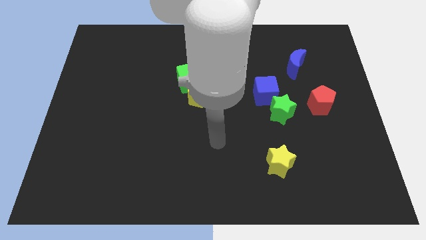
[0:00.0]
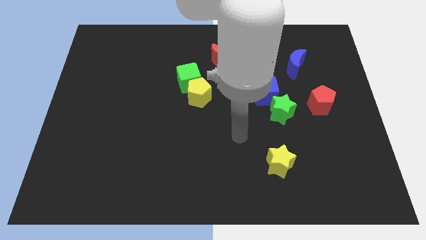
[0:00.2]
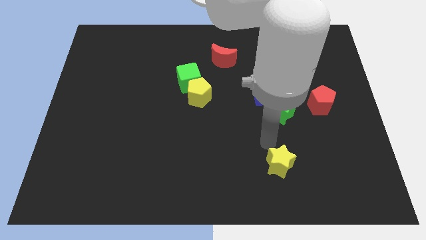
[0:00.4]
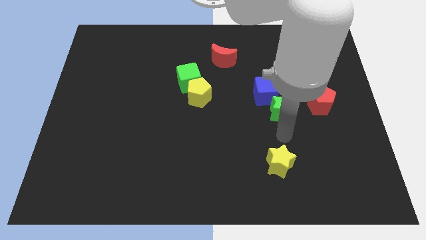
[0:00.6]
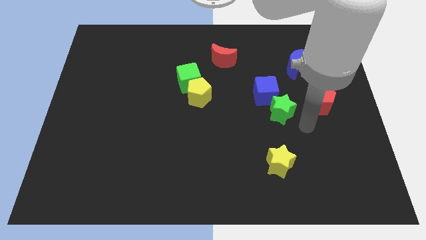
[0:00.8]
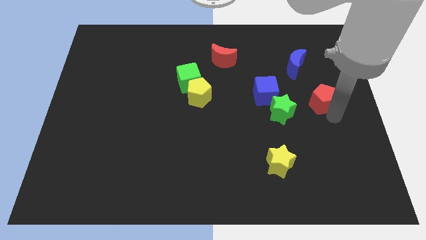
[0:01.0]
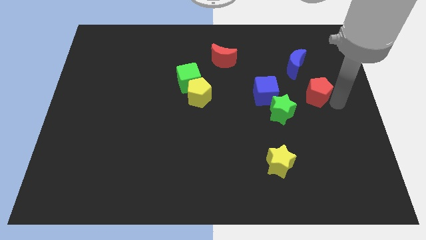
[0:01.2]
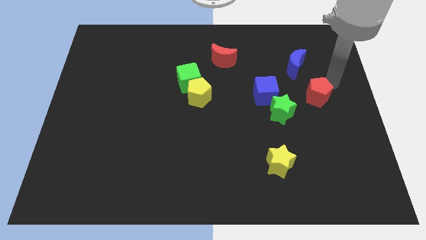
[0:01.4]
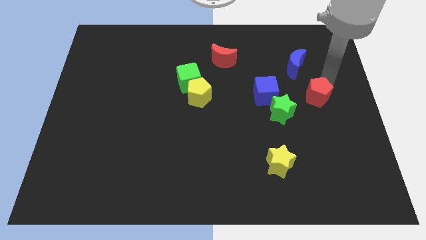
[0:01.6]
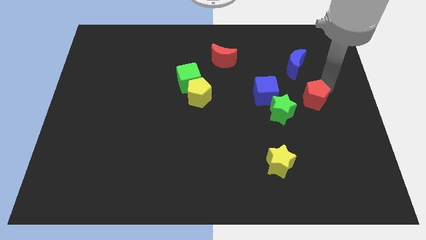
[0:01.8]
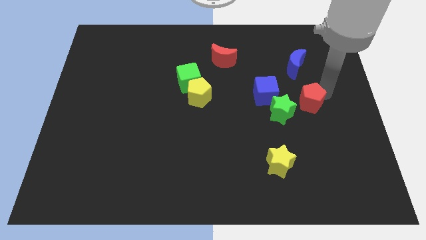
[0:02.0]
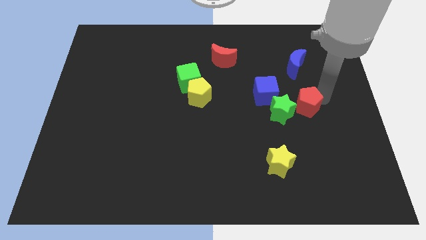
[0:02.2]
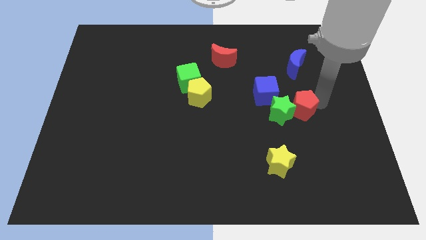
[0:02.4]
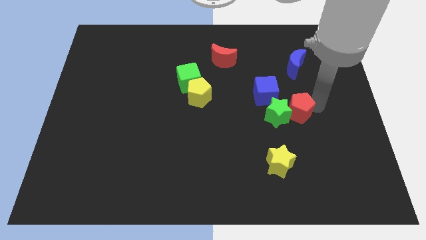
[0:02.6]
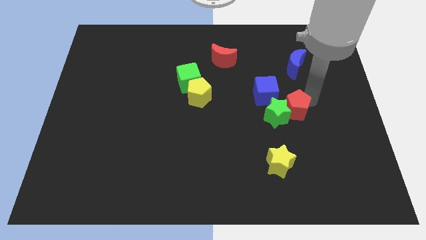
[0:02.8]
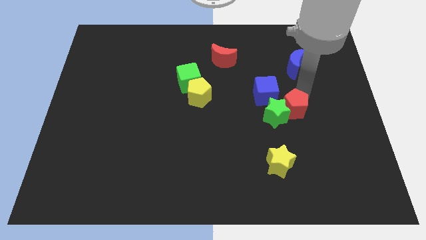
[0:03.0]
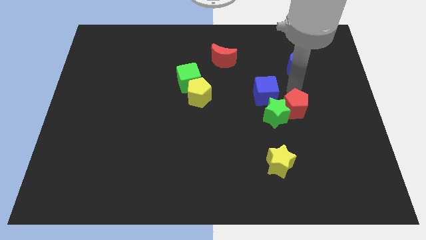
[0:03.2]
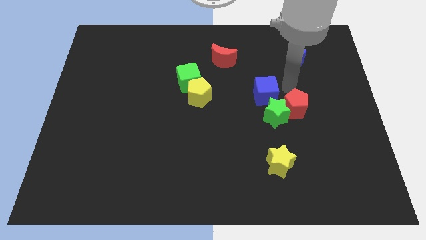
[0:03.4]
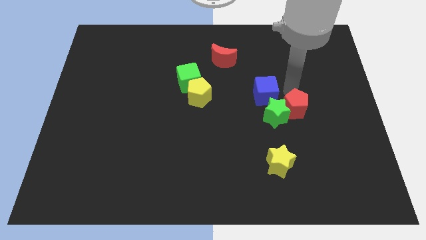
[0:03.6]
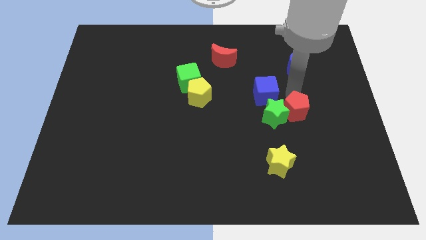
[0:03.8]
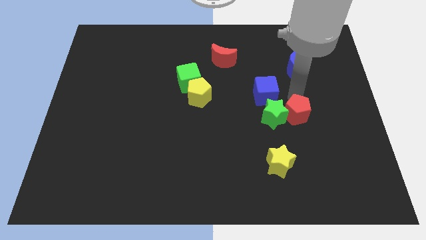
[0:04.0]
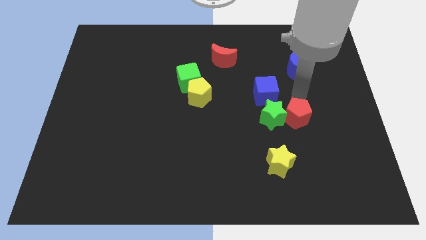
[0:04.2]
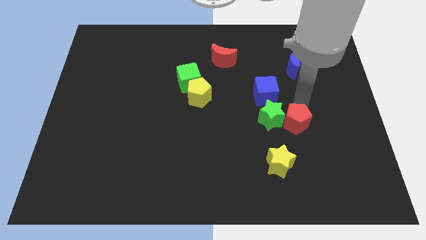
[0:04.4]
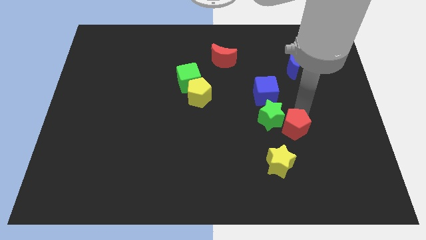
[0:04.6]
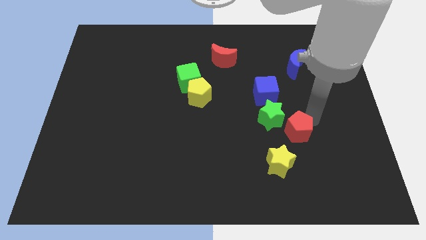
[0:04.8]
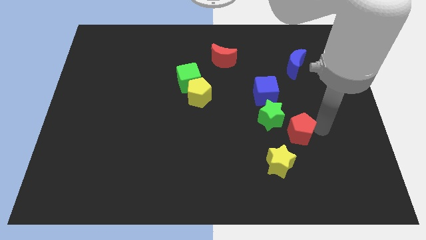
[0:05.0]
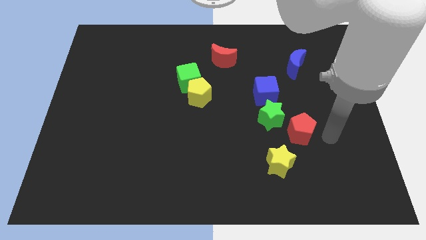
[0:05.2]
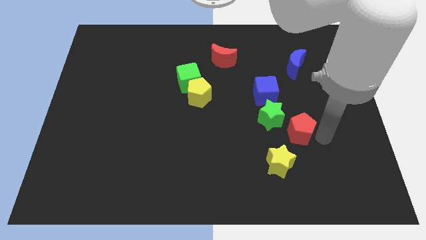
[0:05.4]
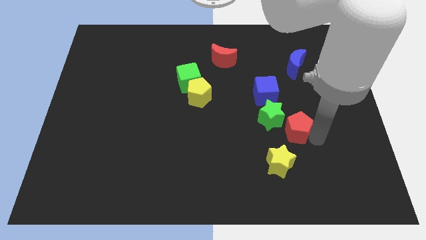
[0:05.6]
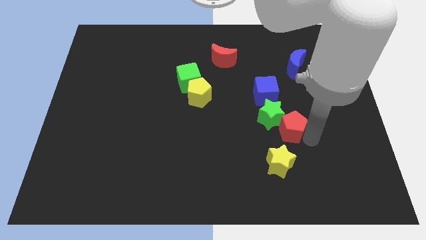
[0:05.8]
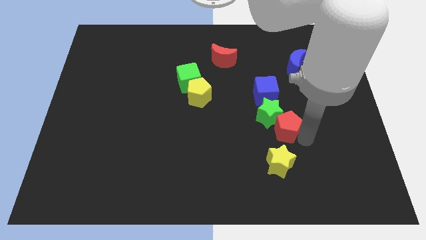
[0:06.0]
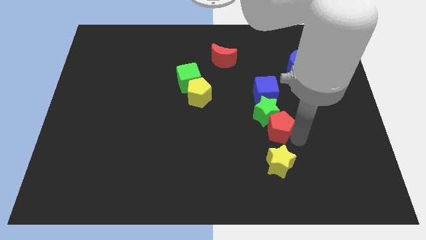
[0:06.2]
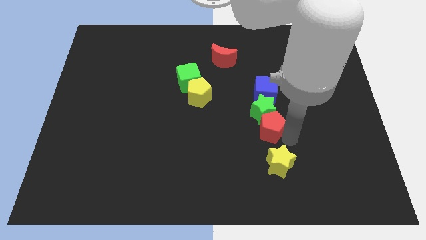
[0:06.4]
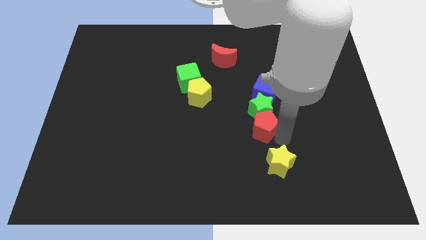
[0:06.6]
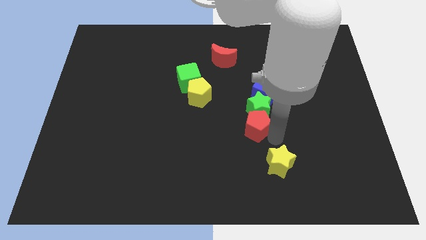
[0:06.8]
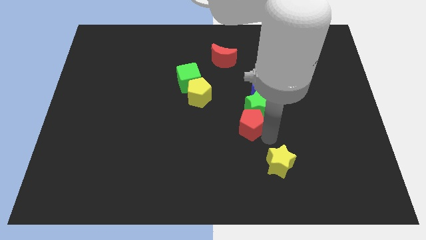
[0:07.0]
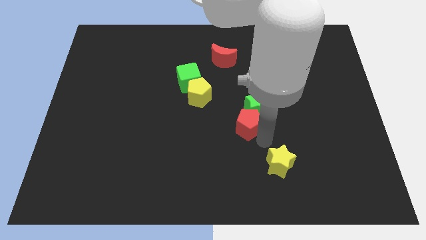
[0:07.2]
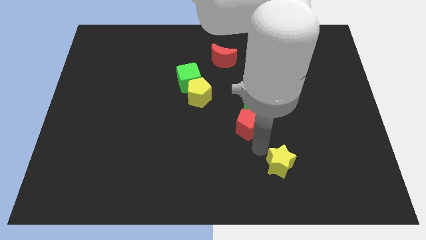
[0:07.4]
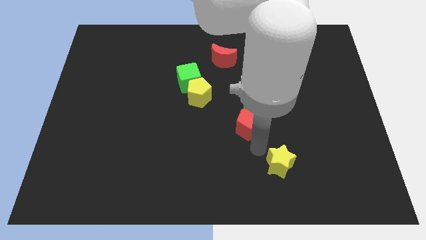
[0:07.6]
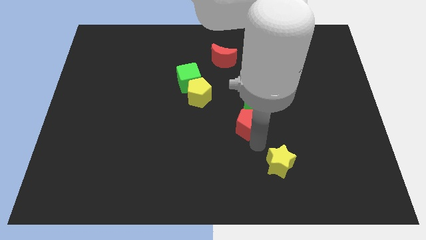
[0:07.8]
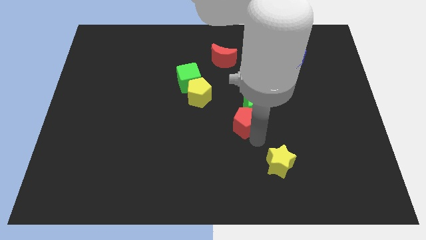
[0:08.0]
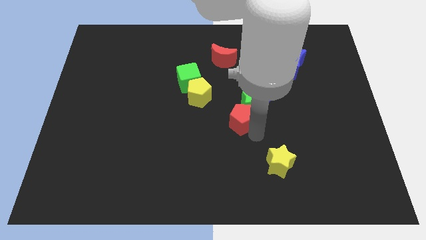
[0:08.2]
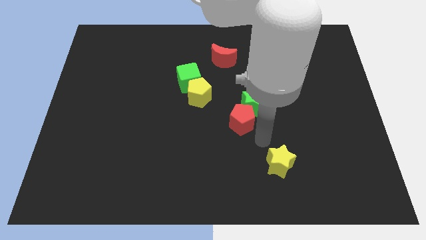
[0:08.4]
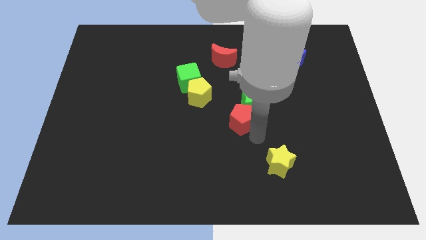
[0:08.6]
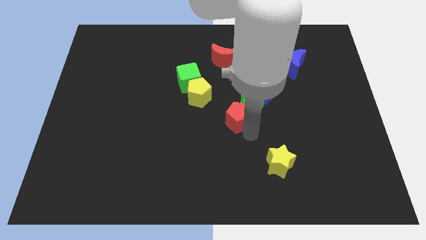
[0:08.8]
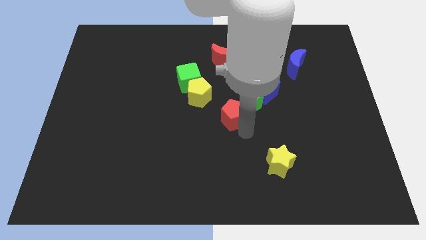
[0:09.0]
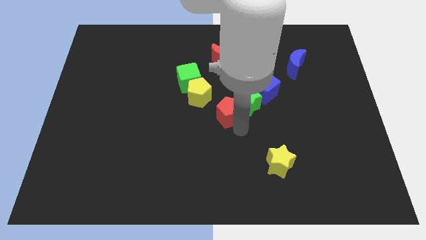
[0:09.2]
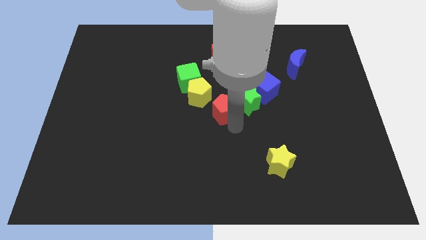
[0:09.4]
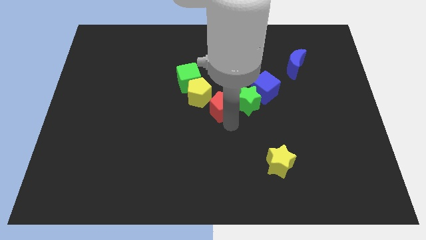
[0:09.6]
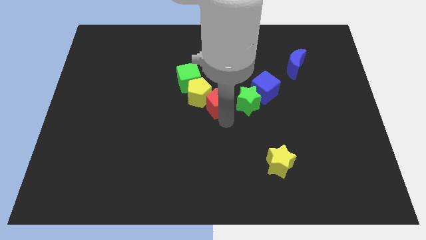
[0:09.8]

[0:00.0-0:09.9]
push the red pentagon next to the yellow pentagon

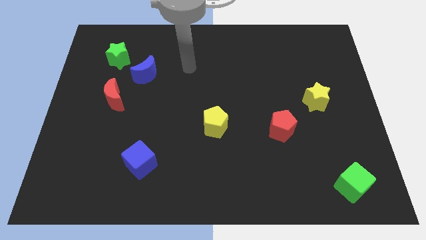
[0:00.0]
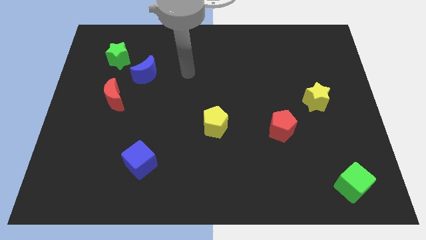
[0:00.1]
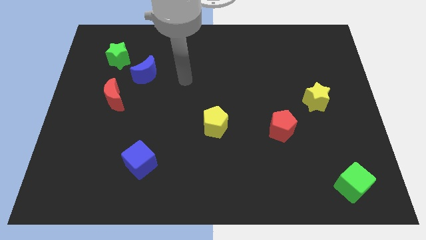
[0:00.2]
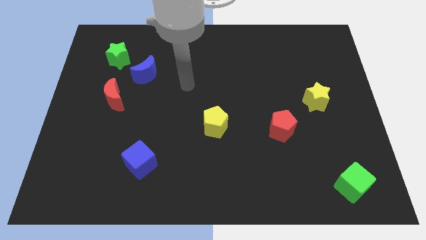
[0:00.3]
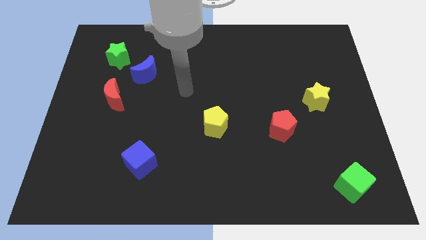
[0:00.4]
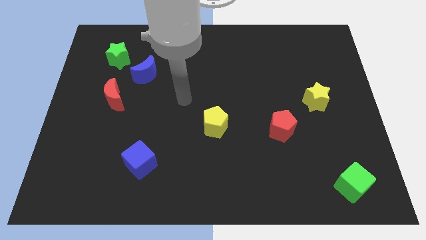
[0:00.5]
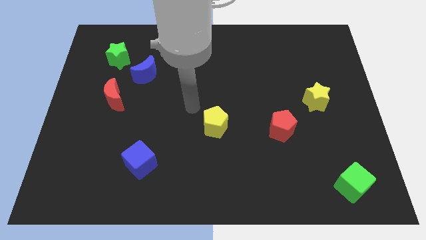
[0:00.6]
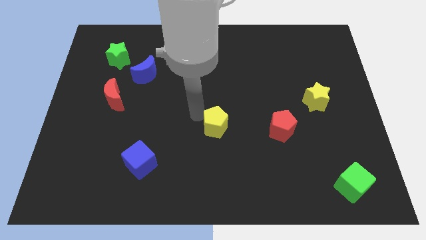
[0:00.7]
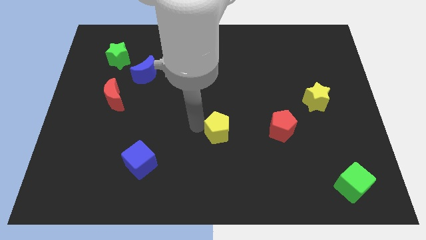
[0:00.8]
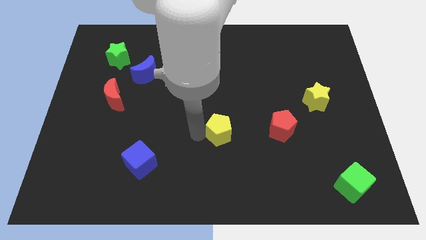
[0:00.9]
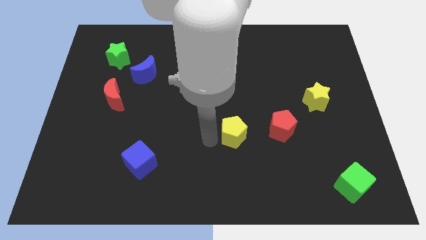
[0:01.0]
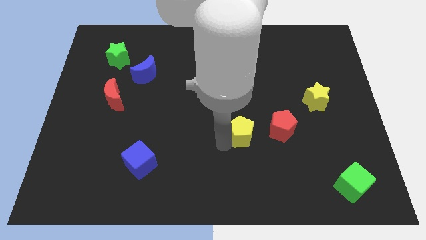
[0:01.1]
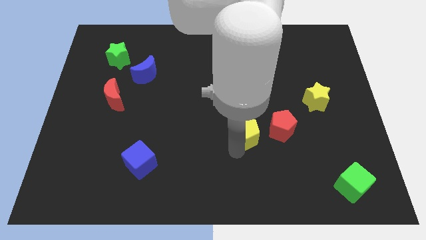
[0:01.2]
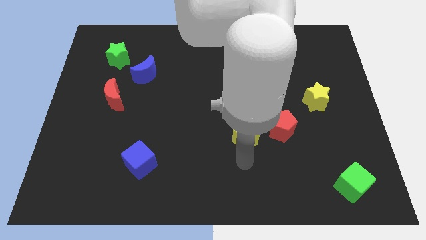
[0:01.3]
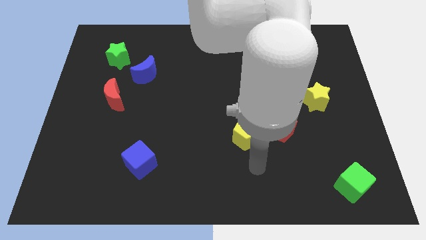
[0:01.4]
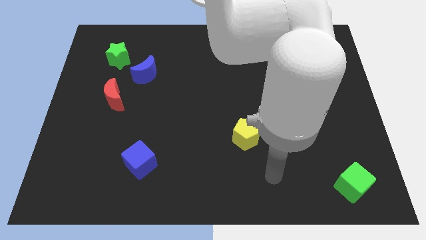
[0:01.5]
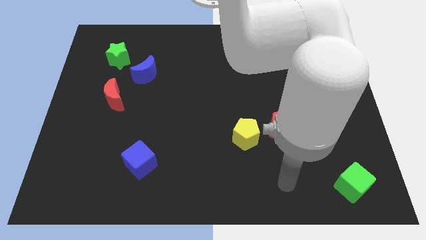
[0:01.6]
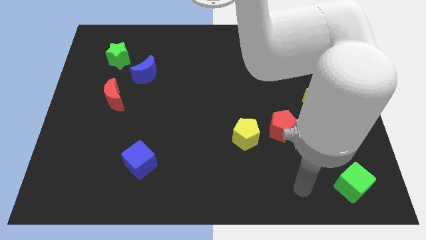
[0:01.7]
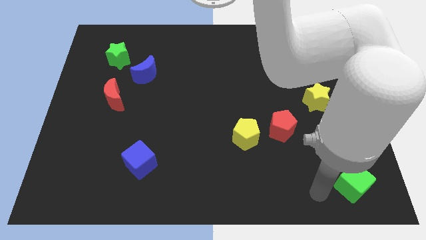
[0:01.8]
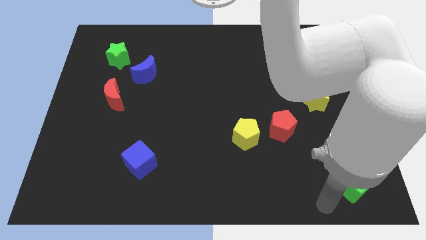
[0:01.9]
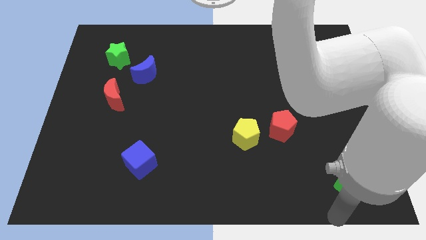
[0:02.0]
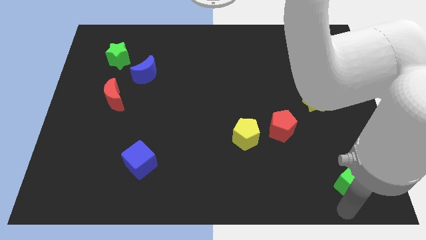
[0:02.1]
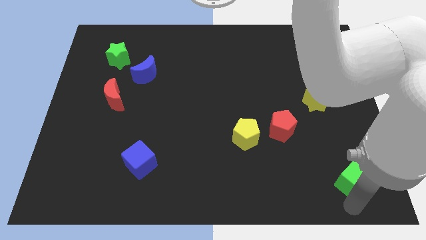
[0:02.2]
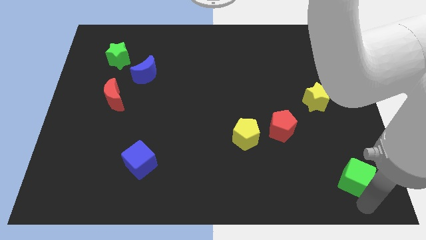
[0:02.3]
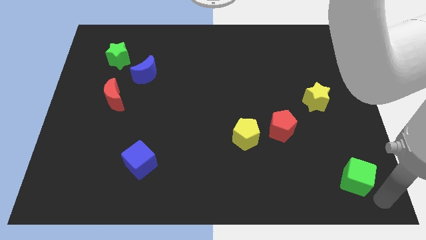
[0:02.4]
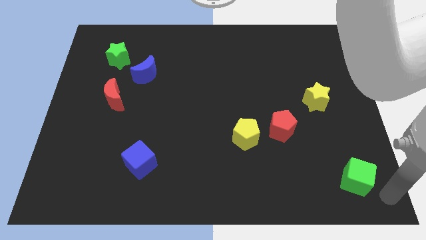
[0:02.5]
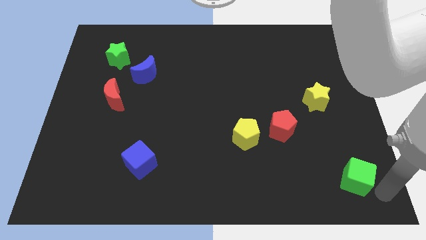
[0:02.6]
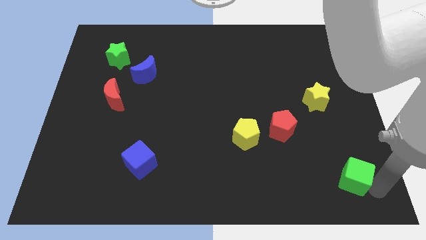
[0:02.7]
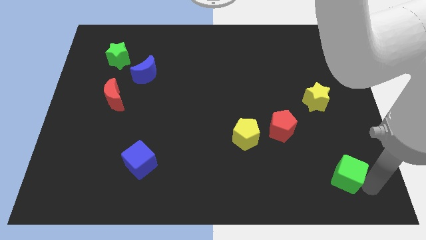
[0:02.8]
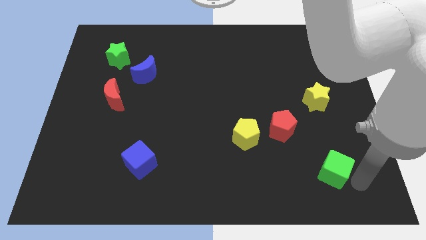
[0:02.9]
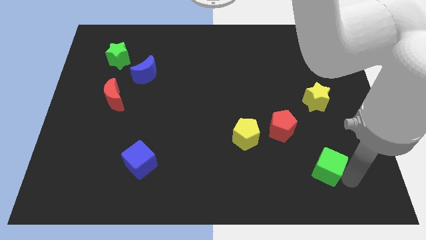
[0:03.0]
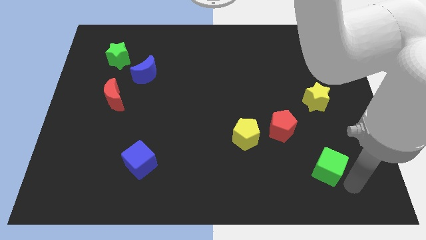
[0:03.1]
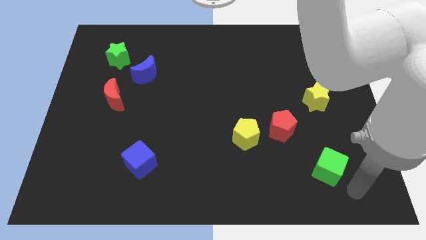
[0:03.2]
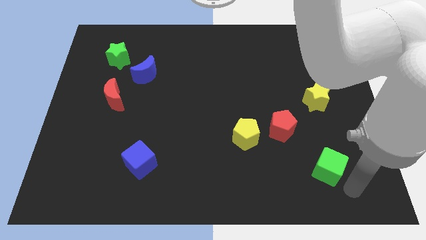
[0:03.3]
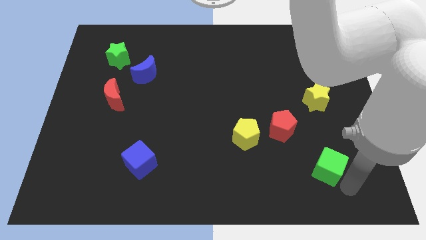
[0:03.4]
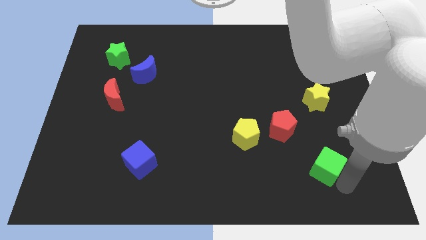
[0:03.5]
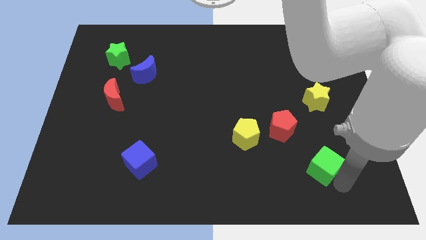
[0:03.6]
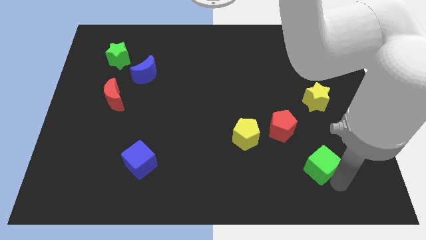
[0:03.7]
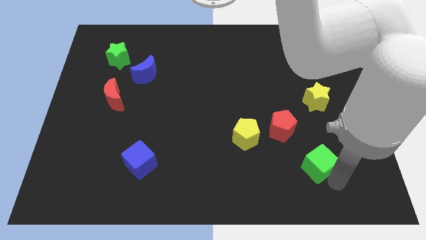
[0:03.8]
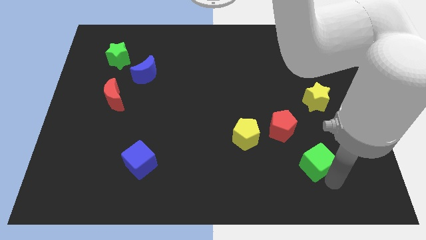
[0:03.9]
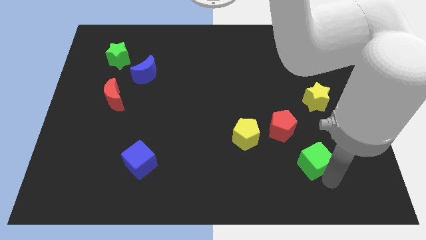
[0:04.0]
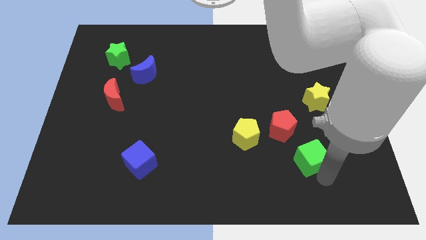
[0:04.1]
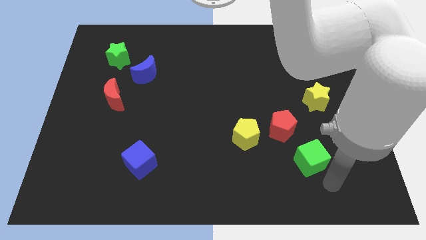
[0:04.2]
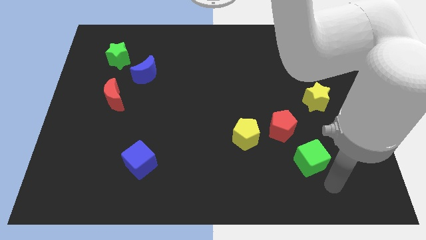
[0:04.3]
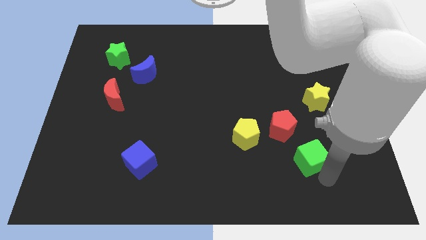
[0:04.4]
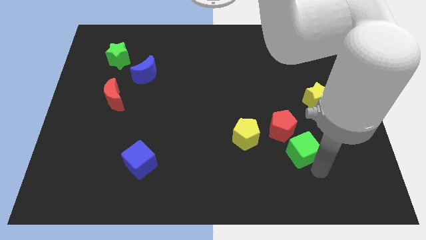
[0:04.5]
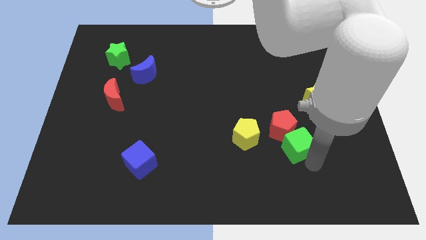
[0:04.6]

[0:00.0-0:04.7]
push the green cube to the red pentagon
